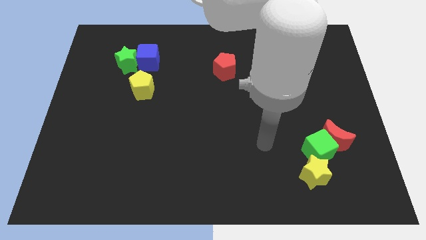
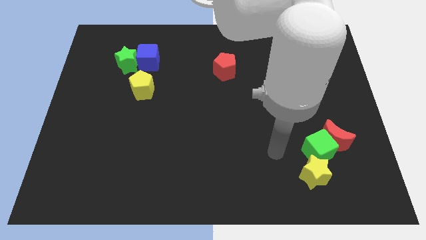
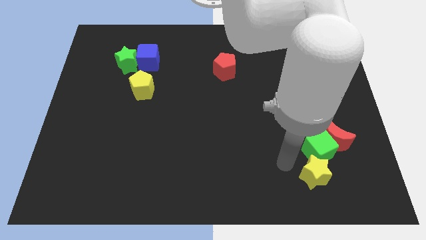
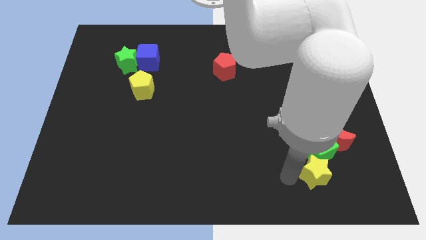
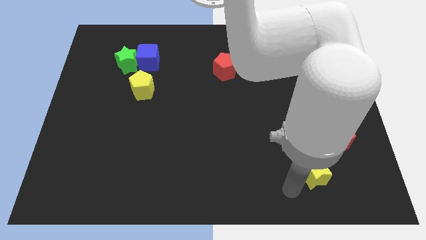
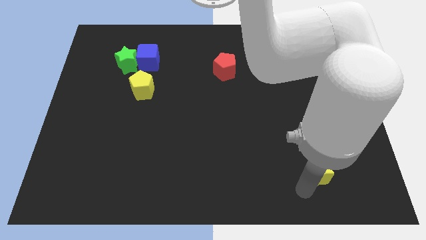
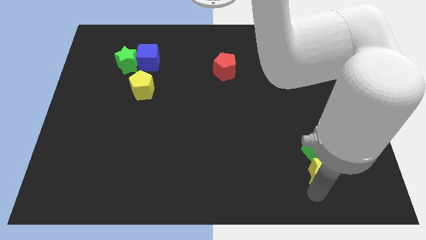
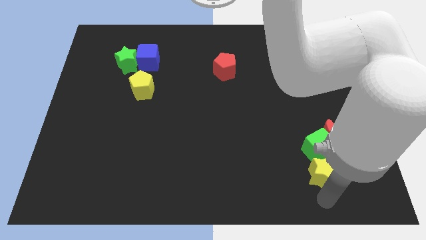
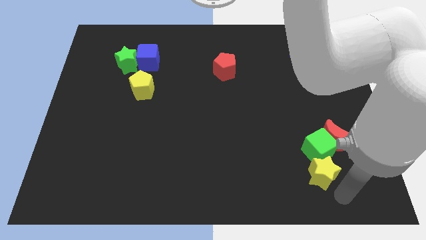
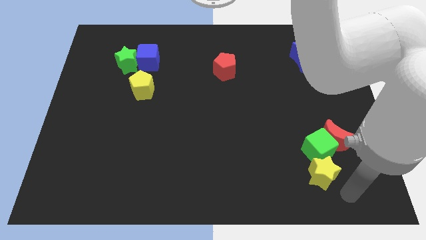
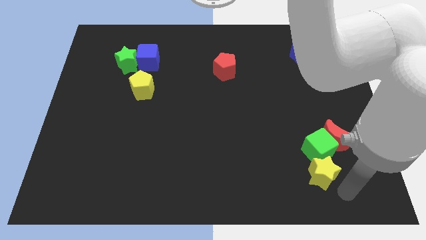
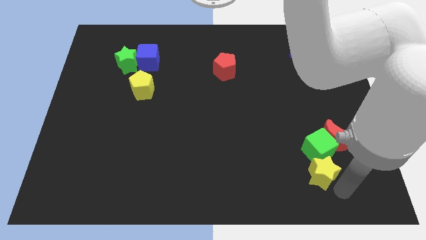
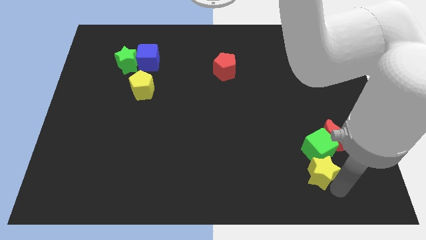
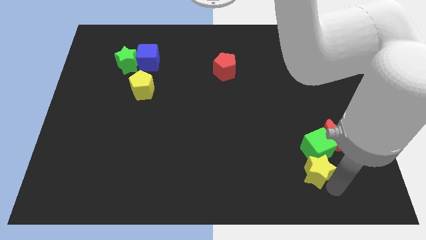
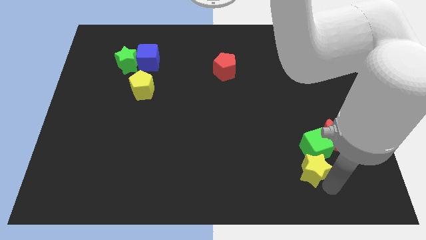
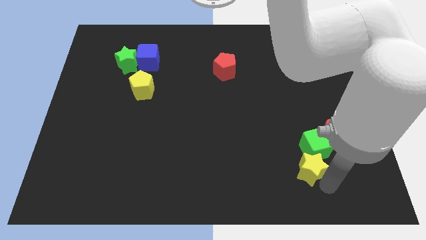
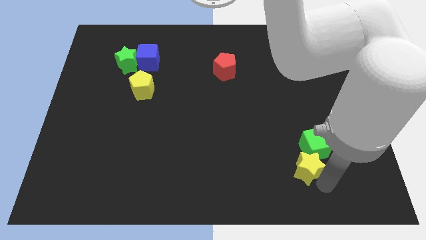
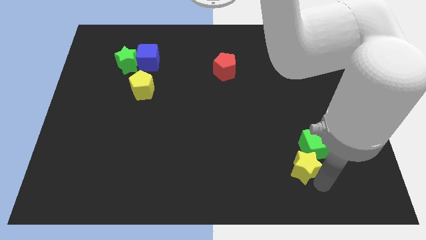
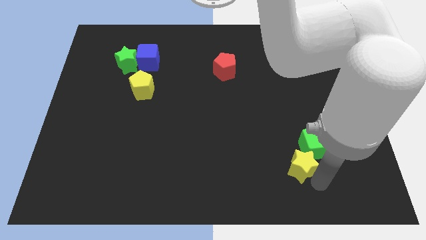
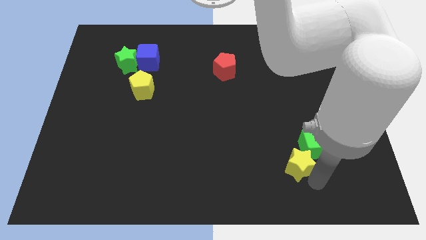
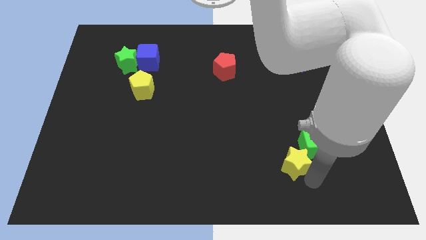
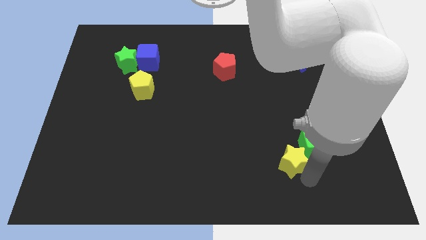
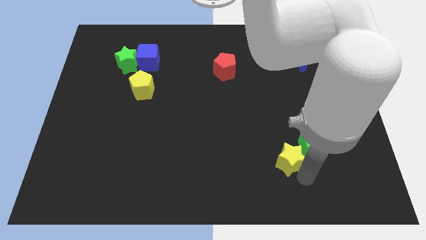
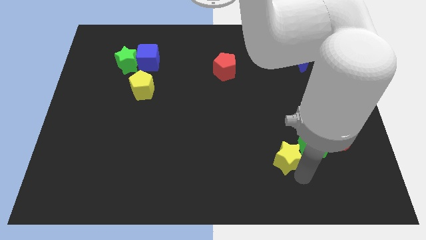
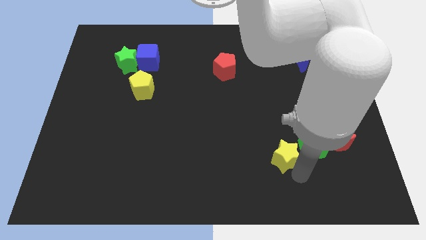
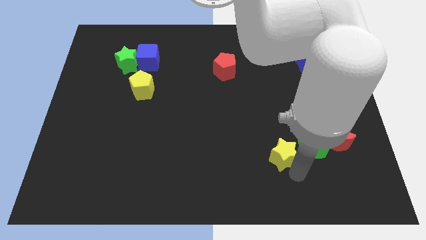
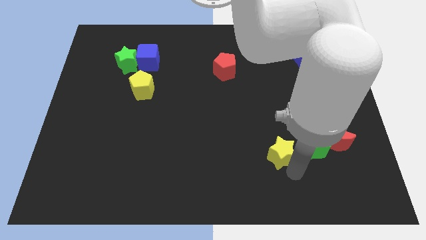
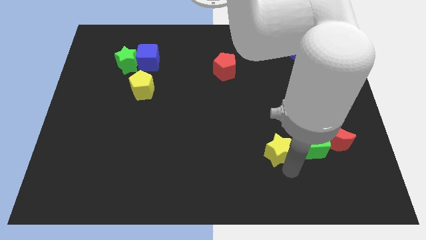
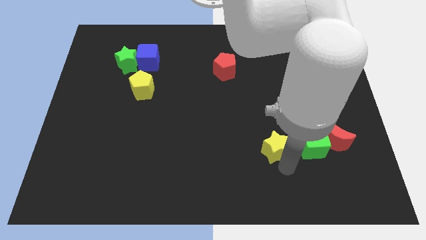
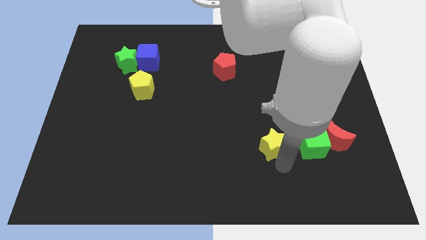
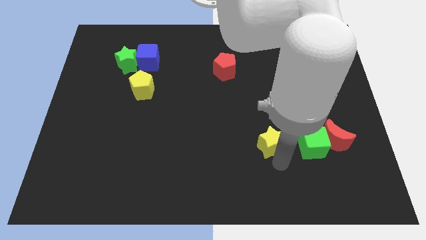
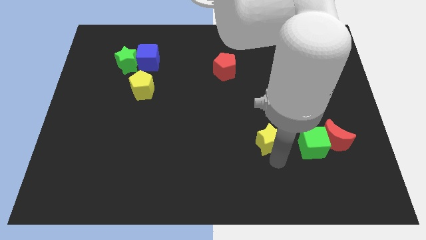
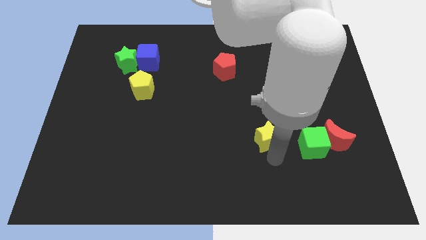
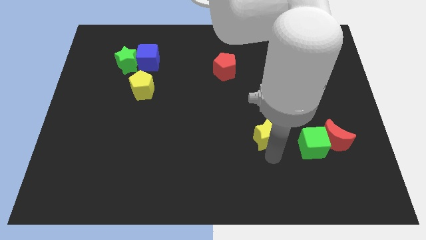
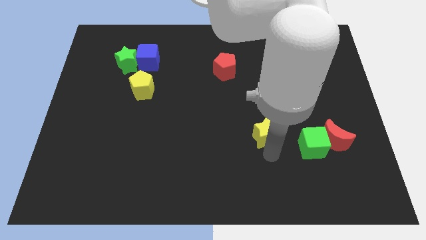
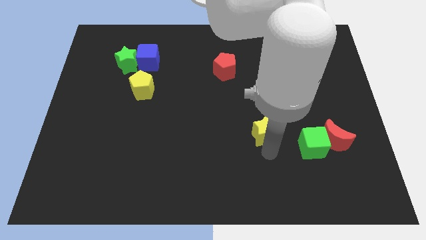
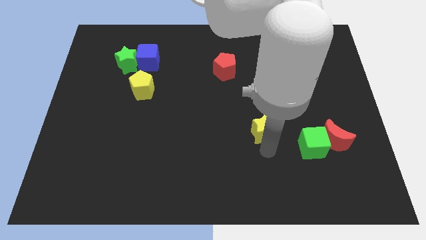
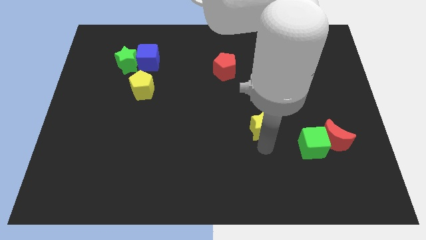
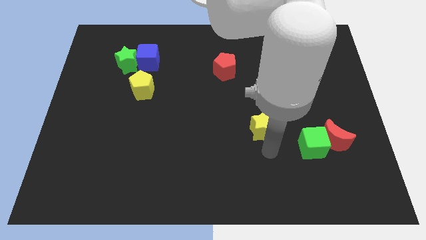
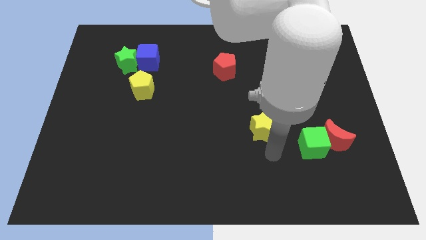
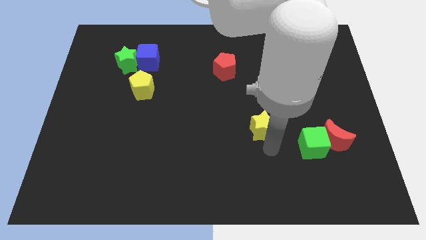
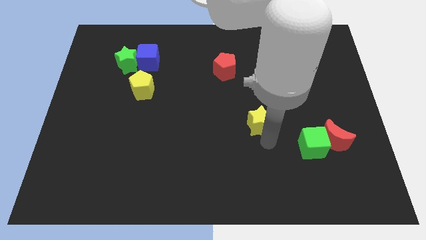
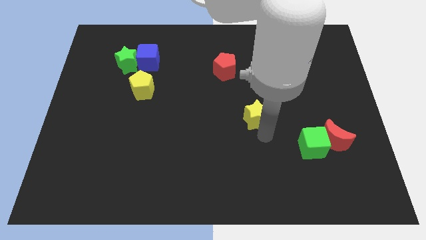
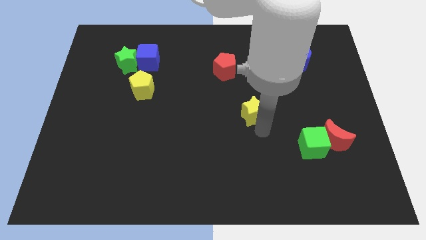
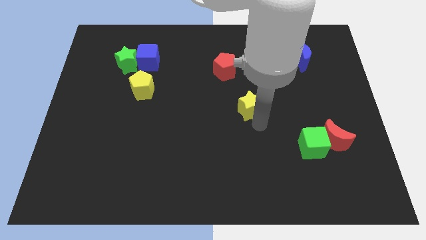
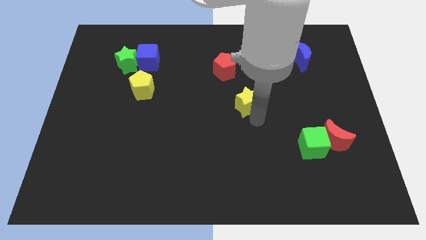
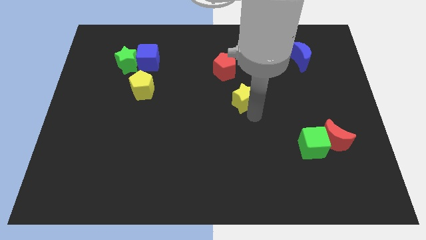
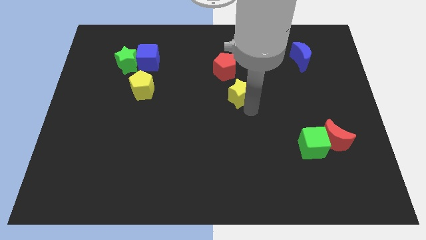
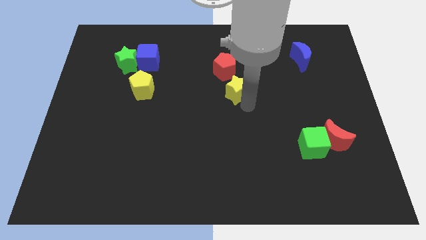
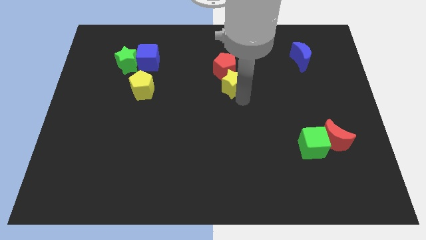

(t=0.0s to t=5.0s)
slide the yellow star close to the red pentagon

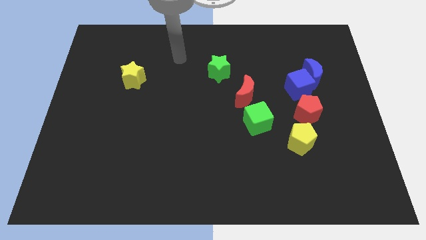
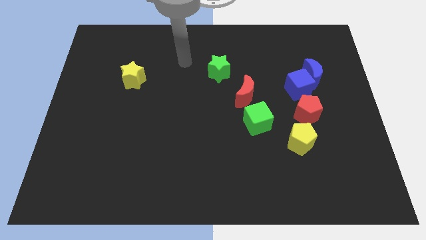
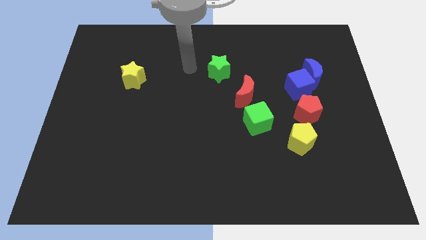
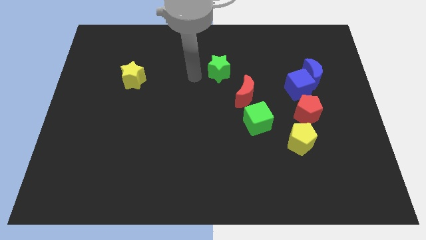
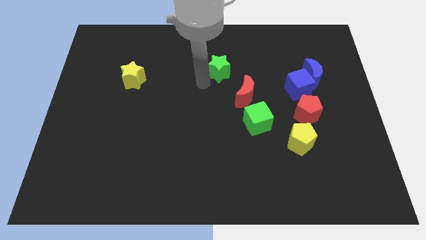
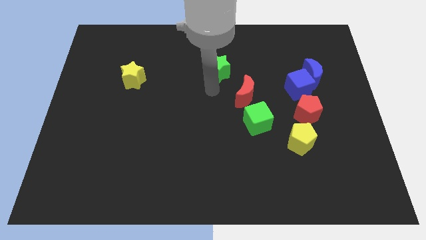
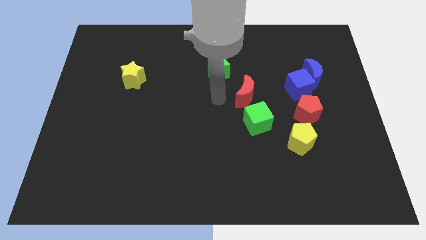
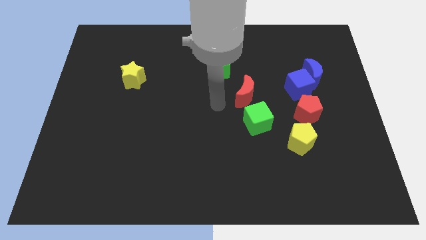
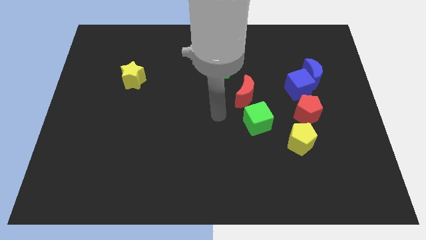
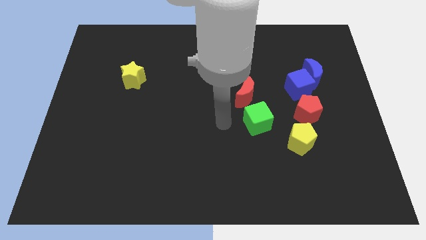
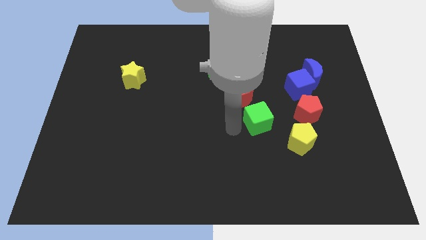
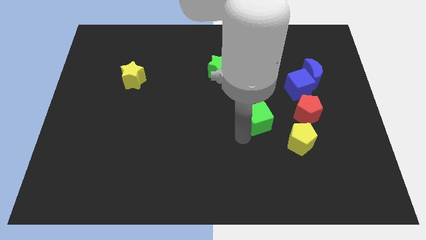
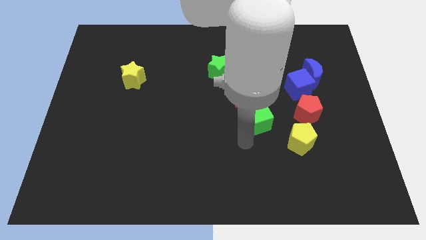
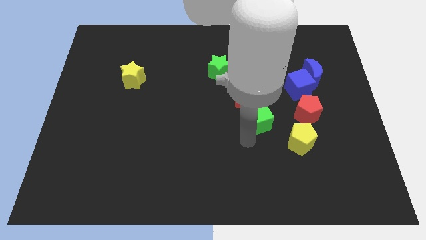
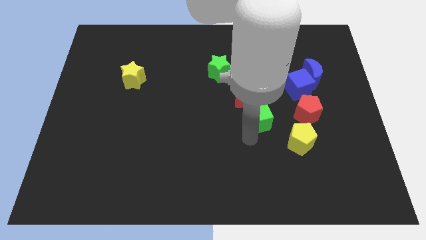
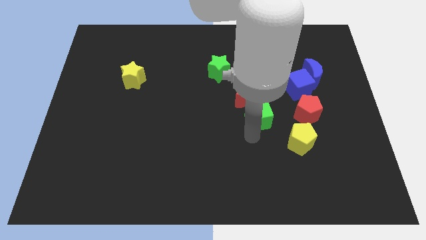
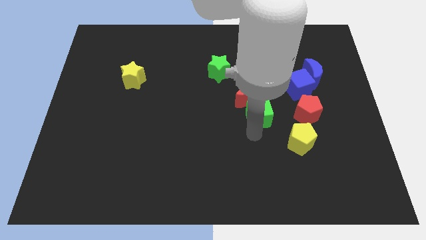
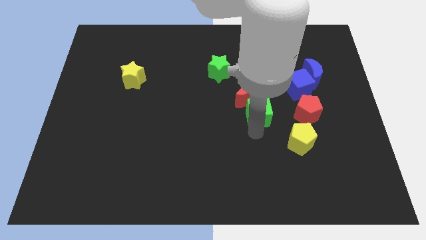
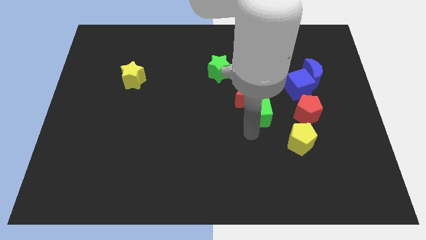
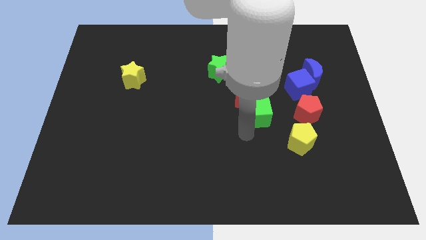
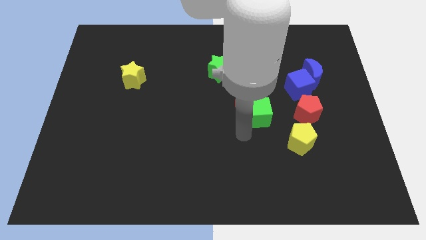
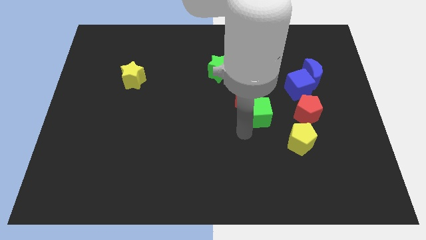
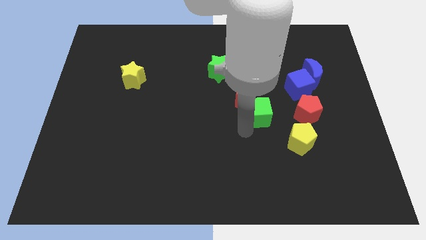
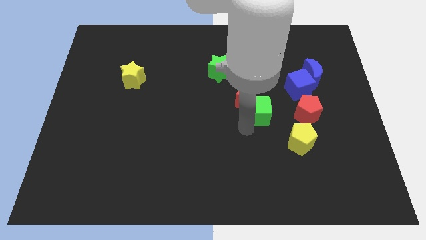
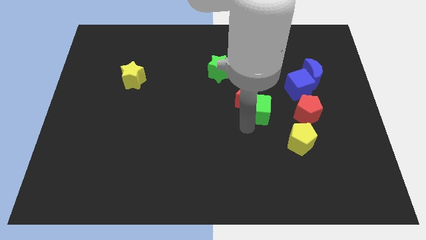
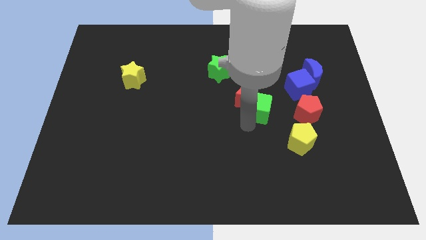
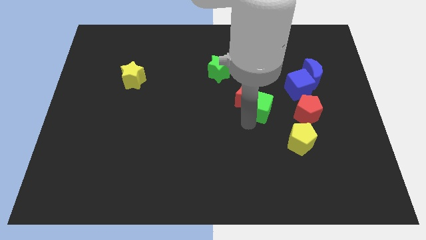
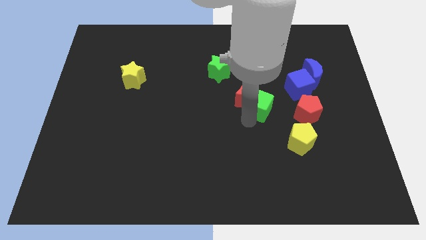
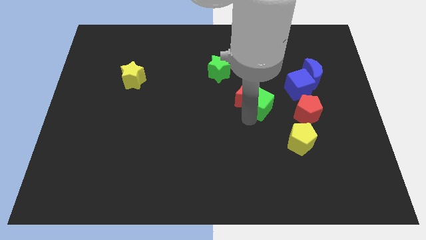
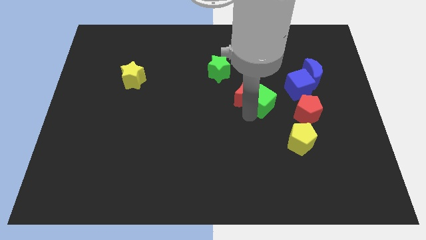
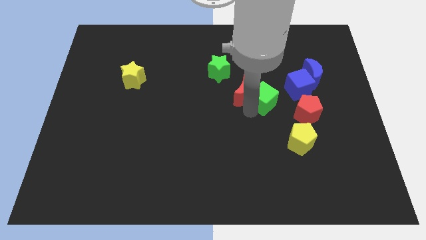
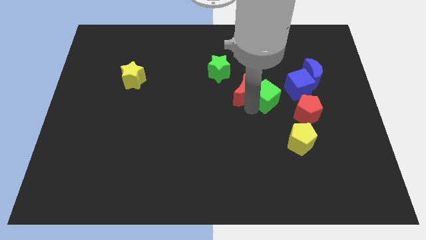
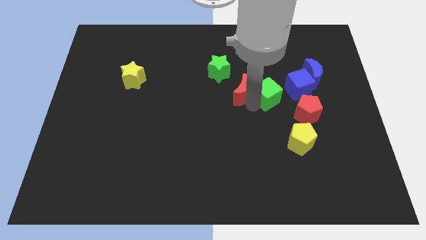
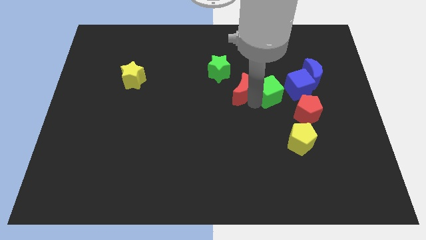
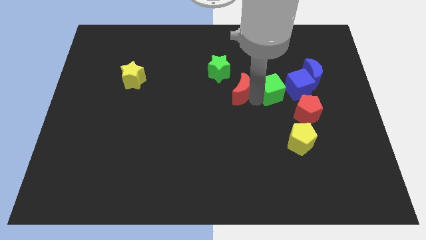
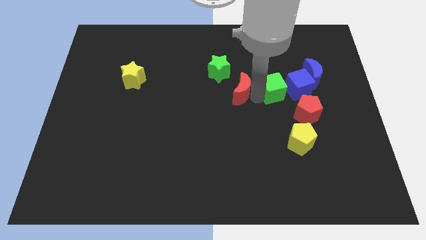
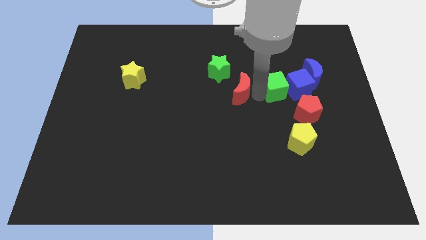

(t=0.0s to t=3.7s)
slide the green cube close to the blue cube
